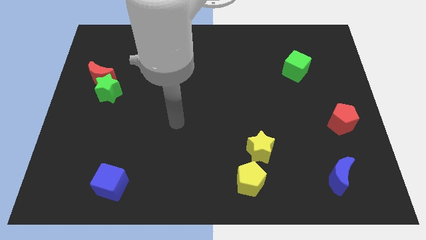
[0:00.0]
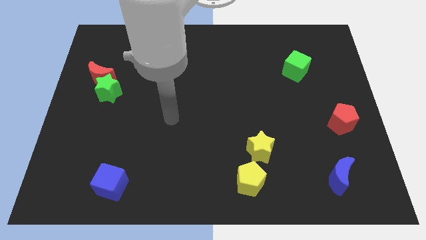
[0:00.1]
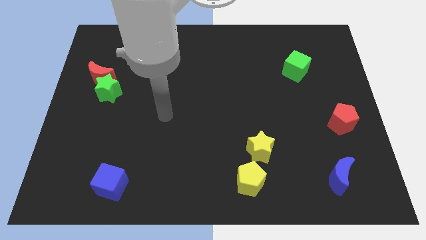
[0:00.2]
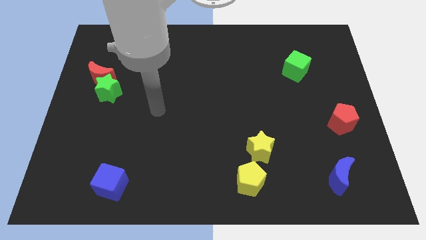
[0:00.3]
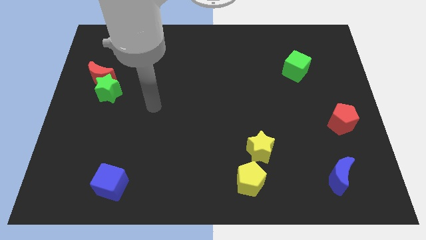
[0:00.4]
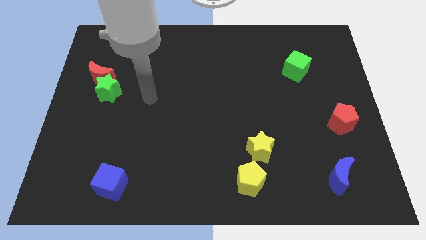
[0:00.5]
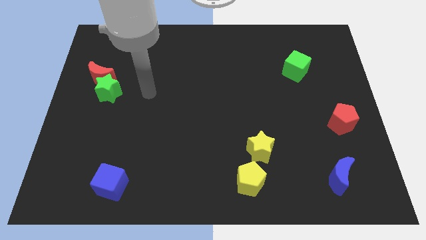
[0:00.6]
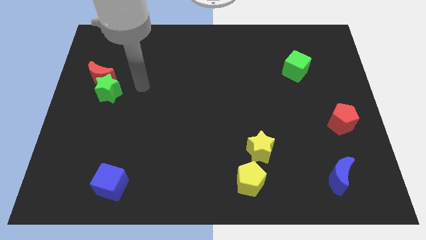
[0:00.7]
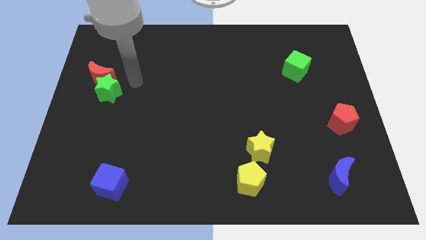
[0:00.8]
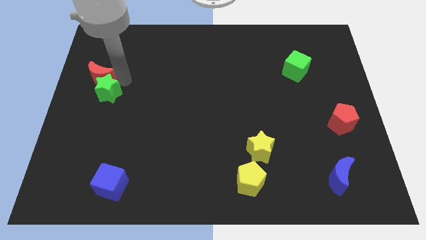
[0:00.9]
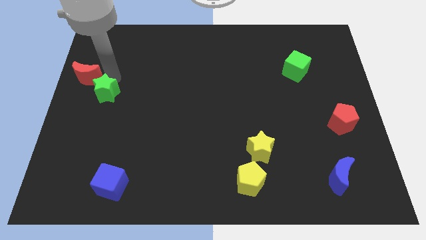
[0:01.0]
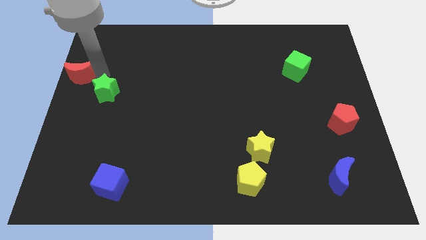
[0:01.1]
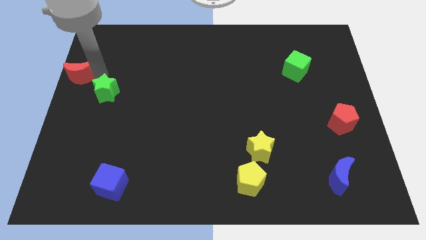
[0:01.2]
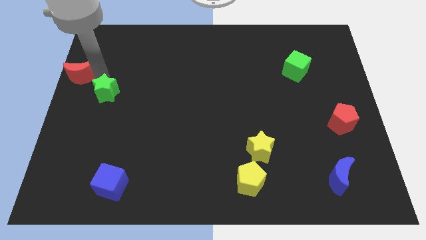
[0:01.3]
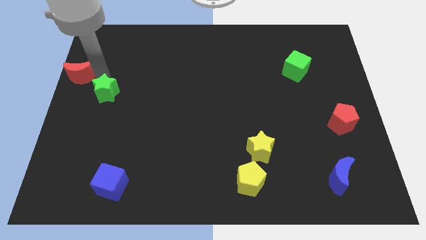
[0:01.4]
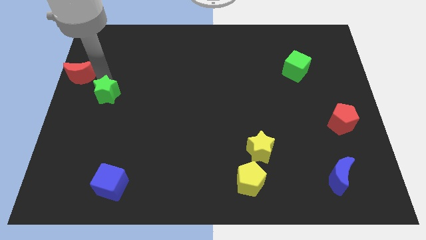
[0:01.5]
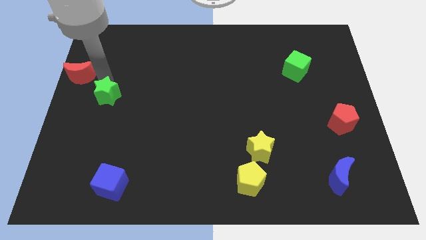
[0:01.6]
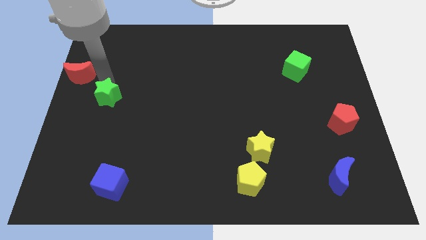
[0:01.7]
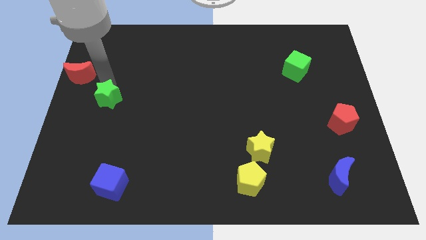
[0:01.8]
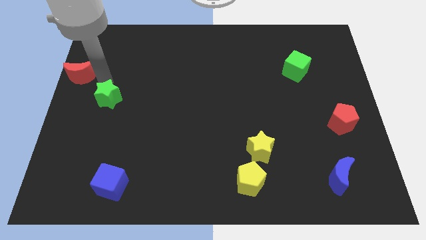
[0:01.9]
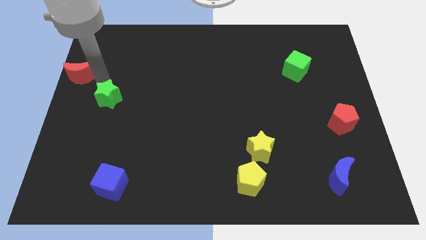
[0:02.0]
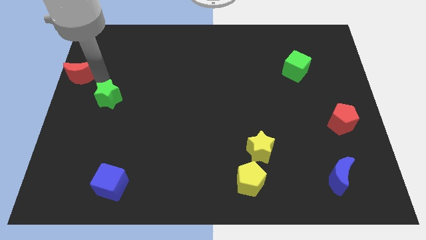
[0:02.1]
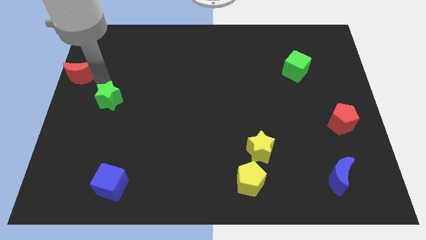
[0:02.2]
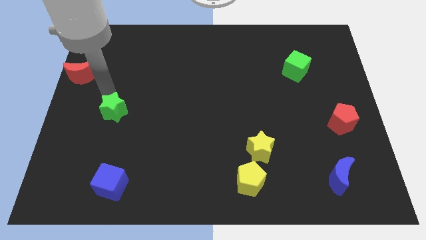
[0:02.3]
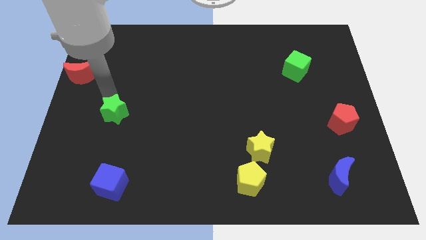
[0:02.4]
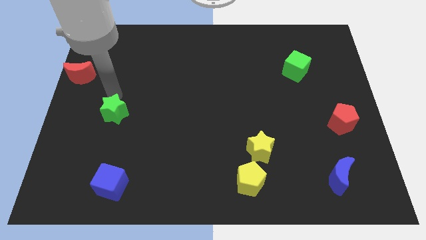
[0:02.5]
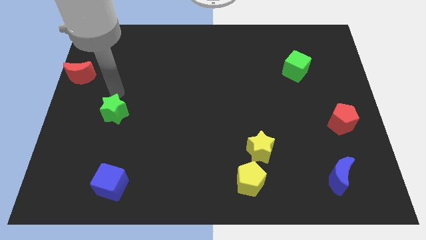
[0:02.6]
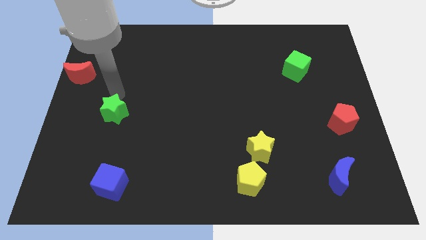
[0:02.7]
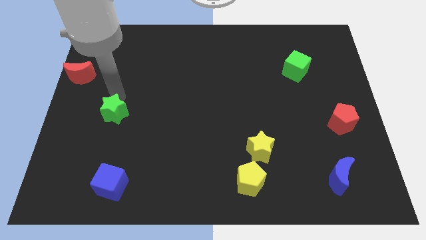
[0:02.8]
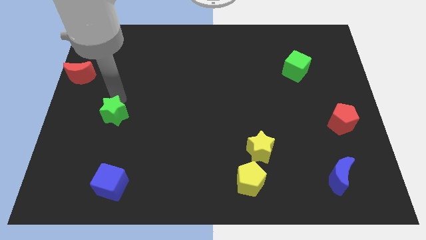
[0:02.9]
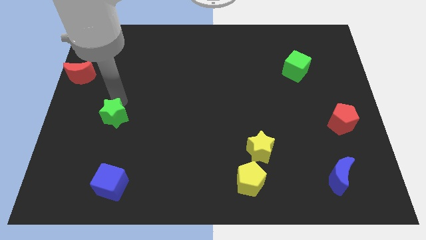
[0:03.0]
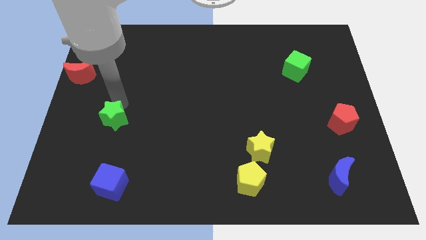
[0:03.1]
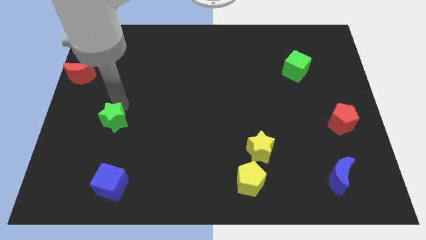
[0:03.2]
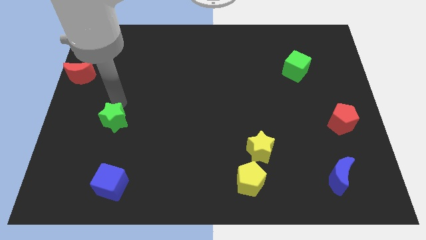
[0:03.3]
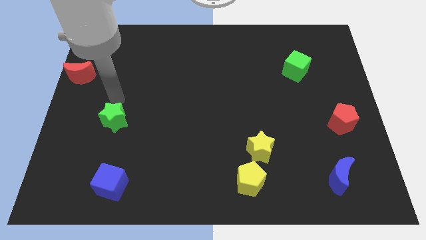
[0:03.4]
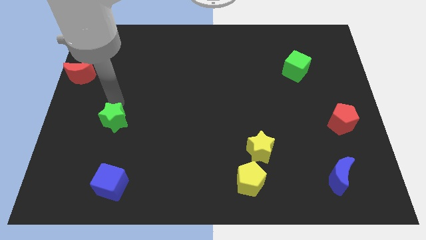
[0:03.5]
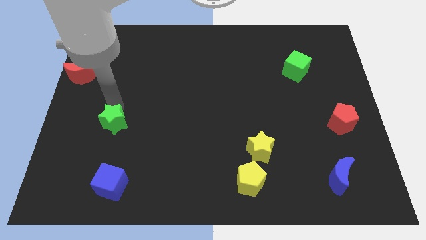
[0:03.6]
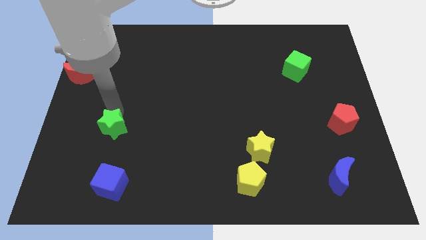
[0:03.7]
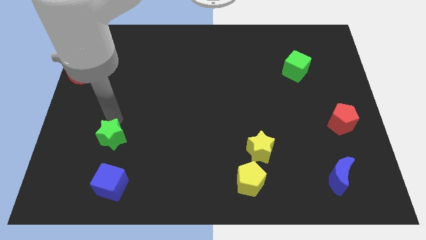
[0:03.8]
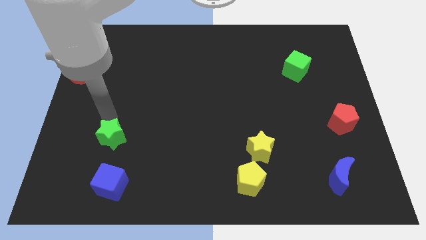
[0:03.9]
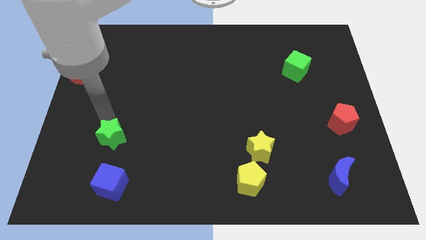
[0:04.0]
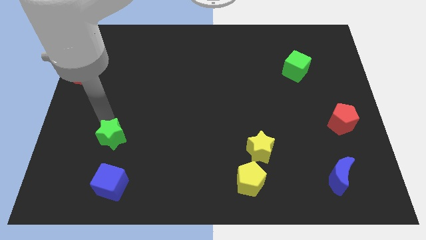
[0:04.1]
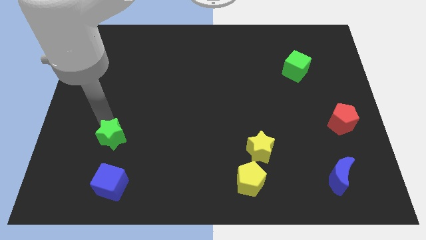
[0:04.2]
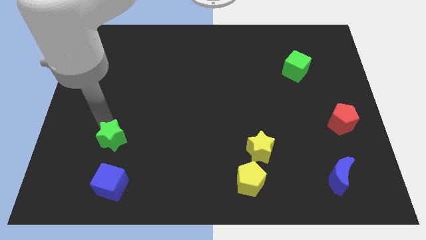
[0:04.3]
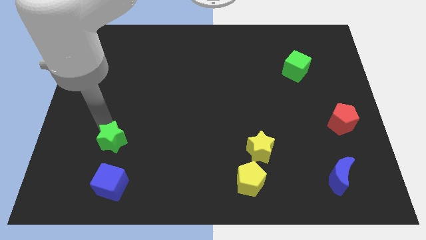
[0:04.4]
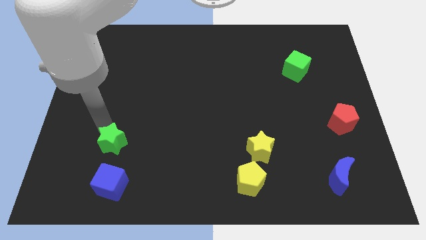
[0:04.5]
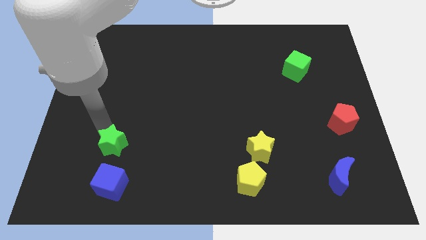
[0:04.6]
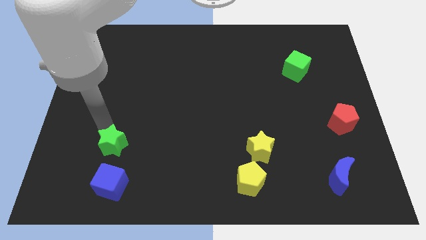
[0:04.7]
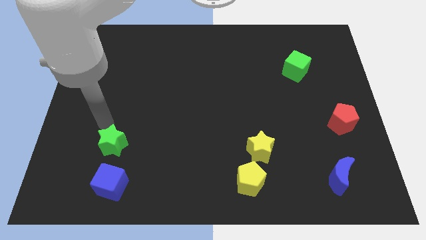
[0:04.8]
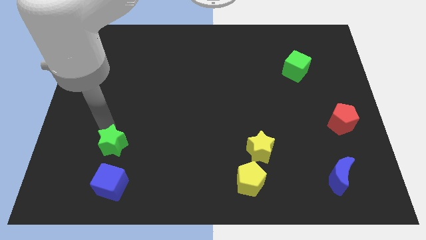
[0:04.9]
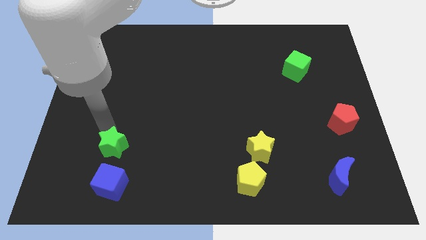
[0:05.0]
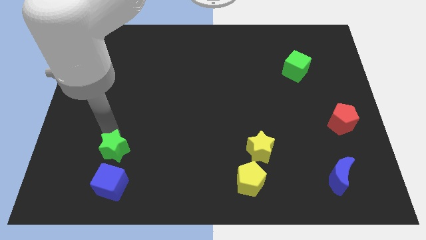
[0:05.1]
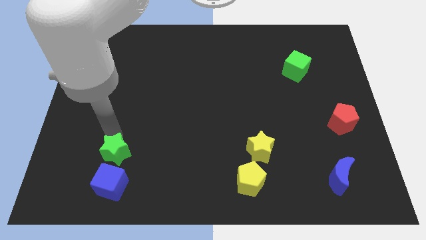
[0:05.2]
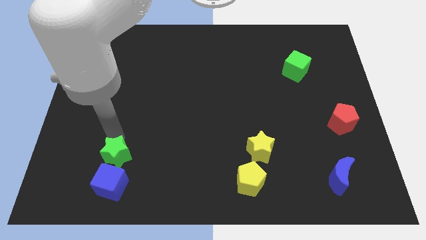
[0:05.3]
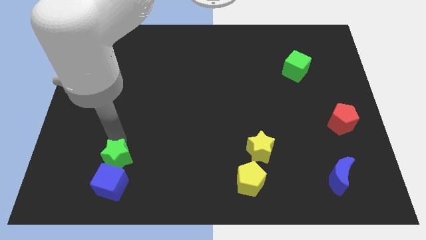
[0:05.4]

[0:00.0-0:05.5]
push the green star next to the blue cube

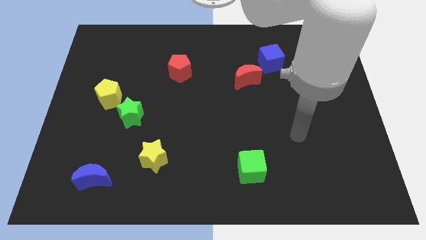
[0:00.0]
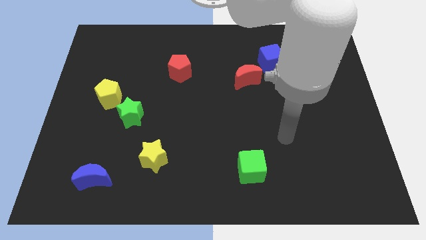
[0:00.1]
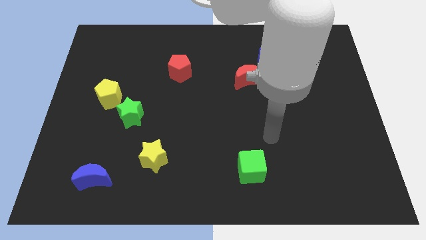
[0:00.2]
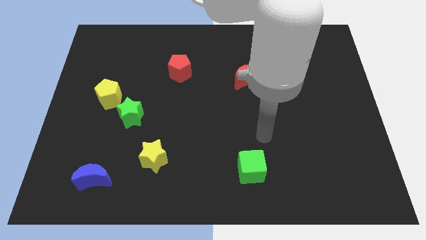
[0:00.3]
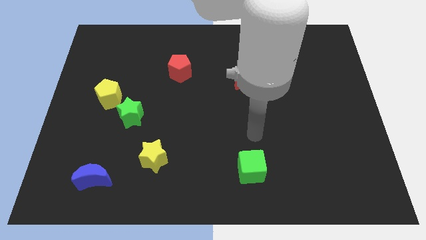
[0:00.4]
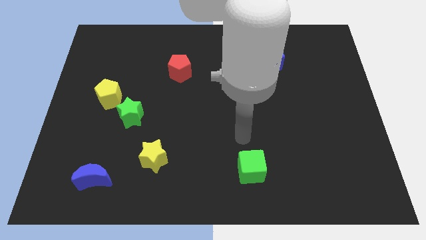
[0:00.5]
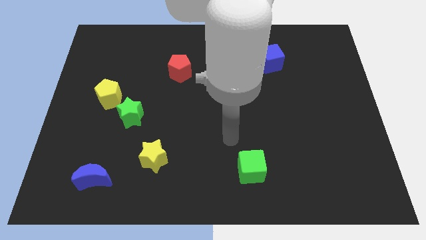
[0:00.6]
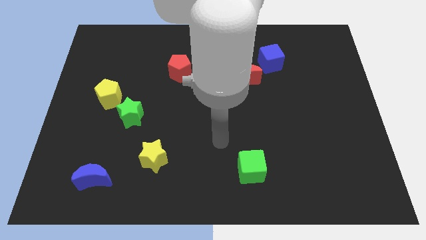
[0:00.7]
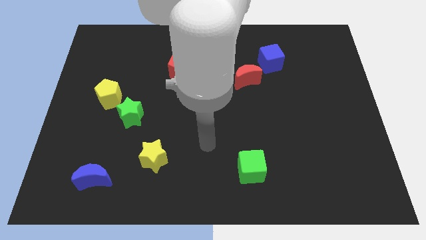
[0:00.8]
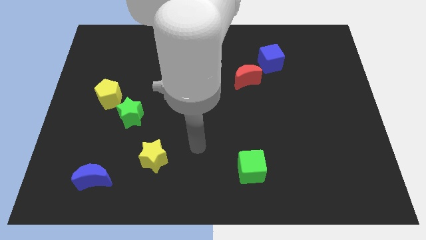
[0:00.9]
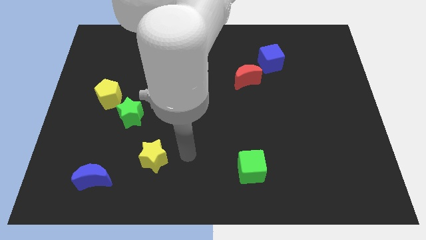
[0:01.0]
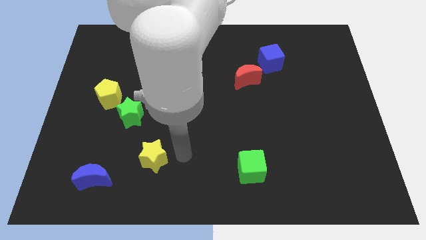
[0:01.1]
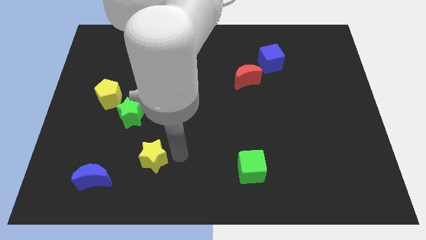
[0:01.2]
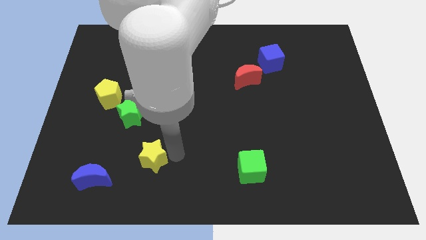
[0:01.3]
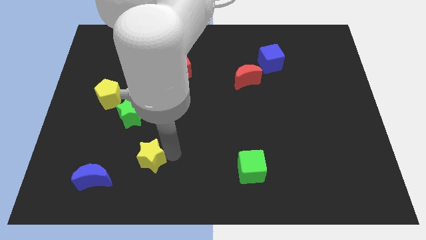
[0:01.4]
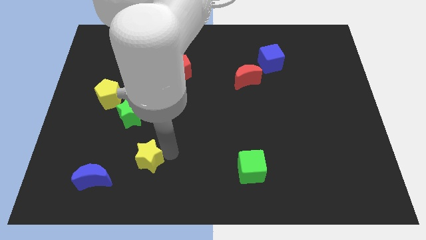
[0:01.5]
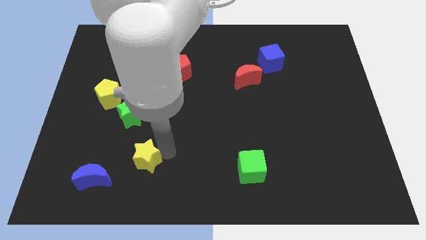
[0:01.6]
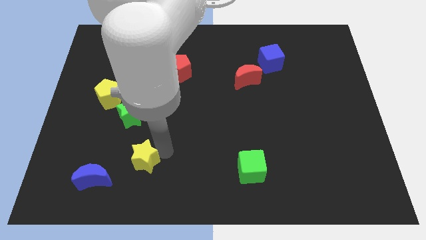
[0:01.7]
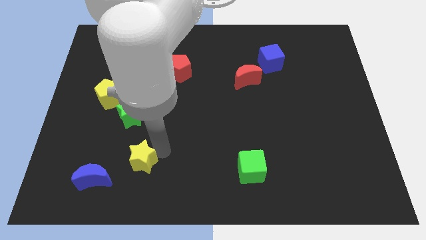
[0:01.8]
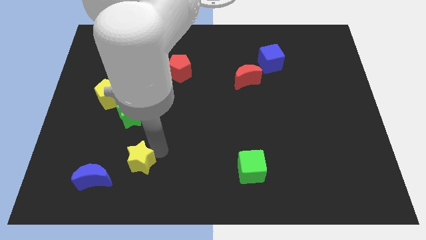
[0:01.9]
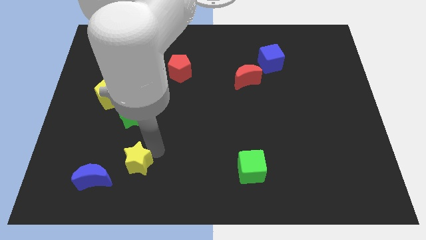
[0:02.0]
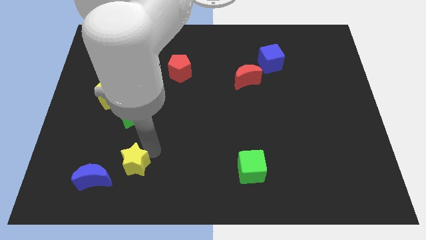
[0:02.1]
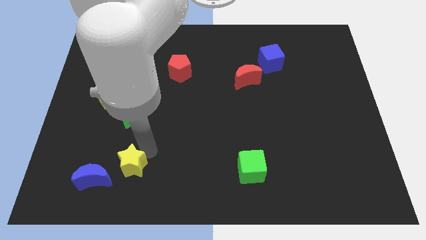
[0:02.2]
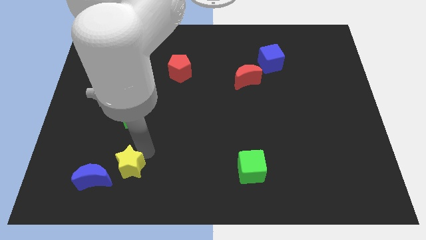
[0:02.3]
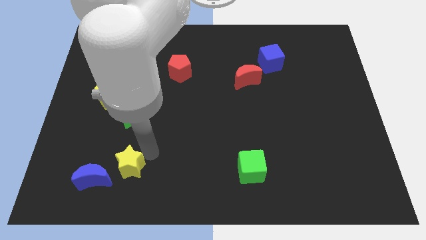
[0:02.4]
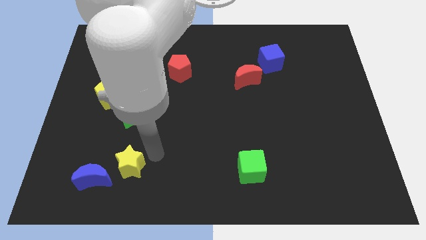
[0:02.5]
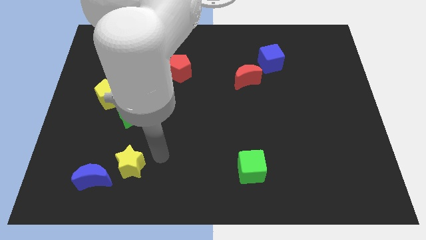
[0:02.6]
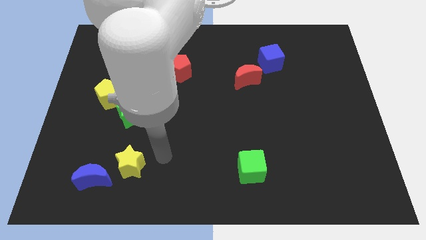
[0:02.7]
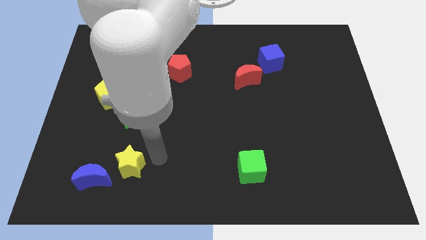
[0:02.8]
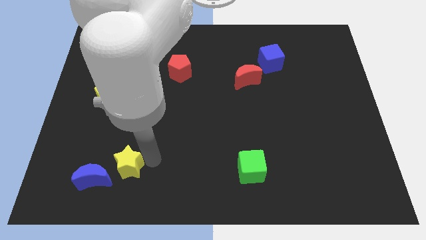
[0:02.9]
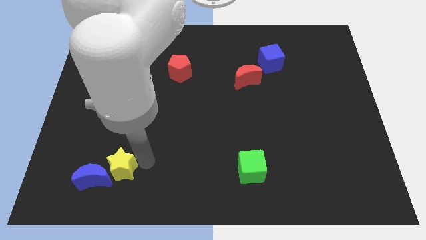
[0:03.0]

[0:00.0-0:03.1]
push the yellow star close to the blue moon
